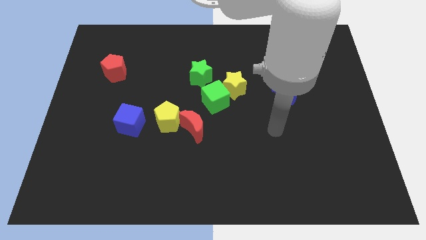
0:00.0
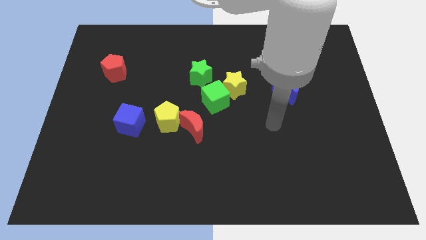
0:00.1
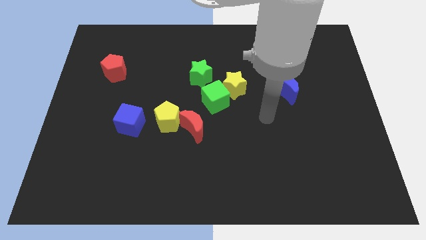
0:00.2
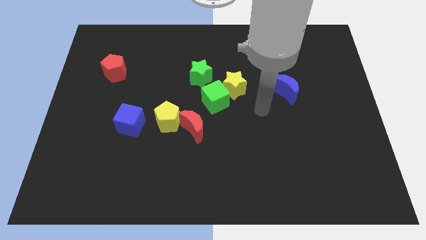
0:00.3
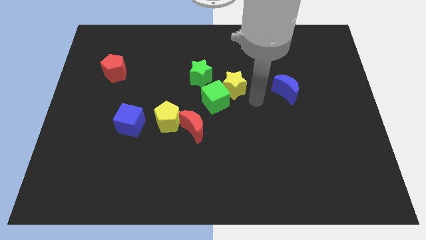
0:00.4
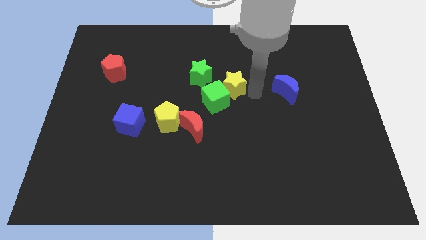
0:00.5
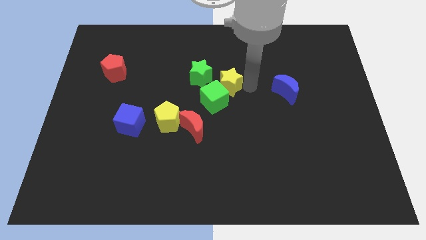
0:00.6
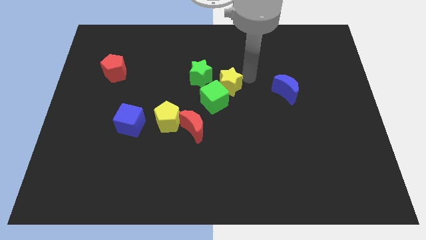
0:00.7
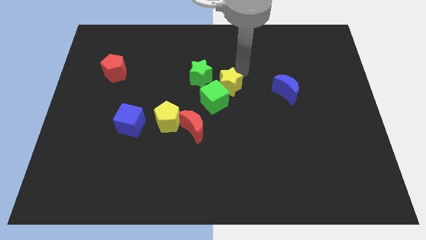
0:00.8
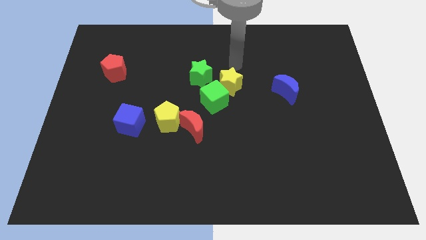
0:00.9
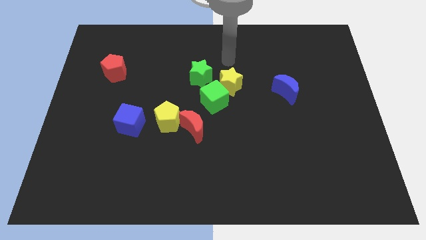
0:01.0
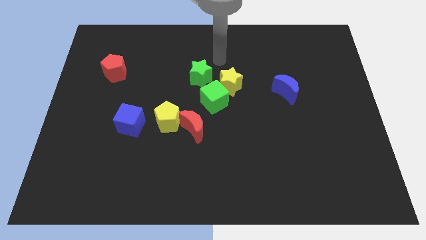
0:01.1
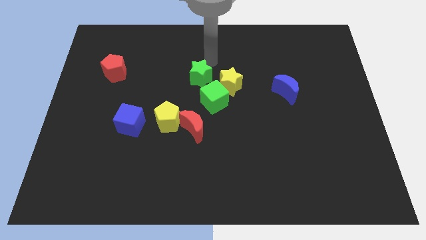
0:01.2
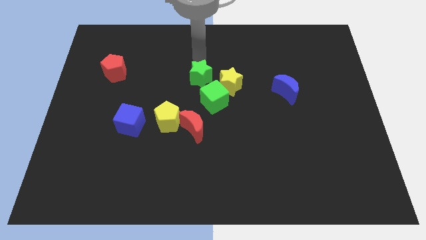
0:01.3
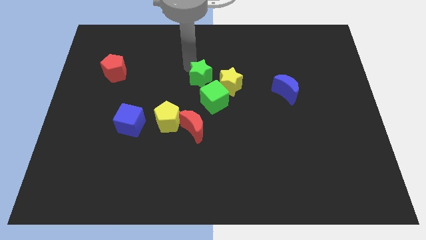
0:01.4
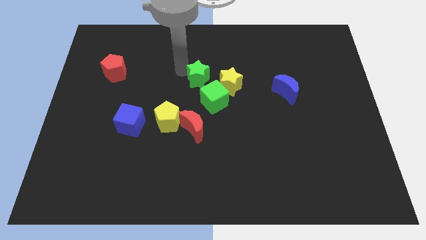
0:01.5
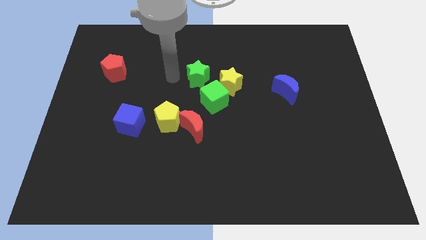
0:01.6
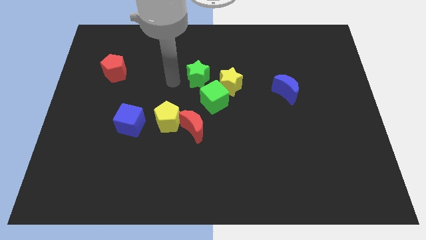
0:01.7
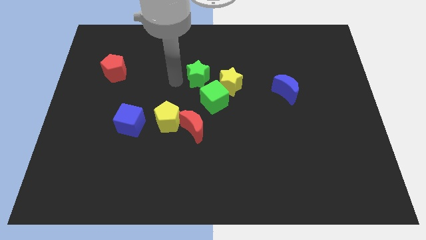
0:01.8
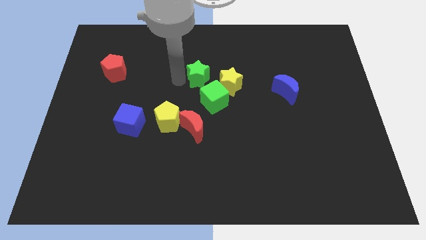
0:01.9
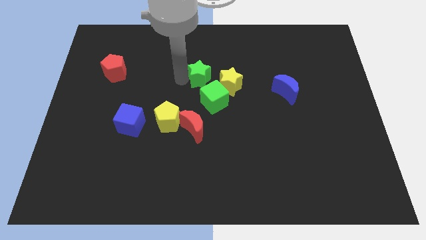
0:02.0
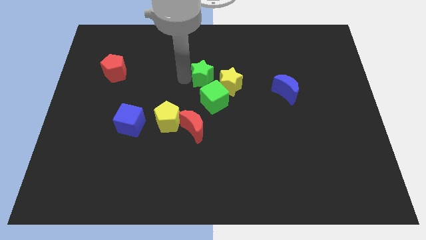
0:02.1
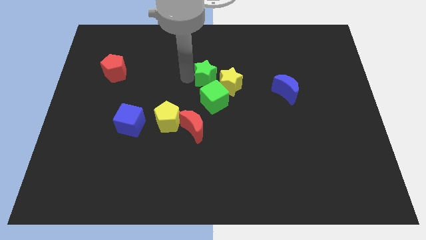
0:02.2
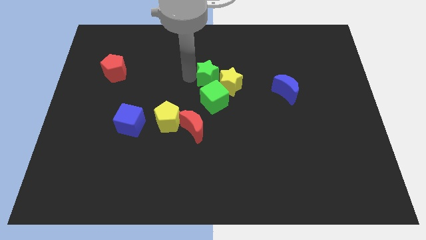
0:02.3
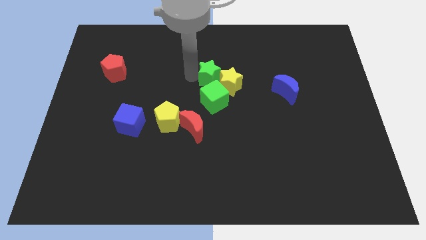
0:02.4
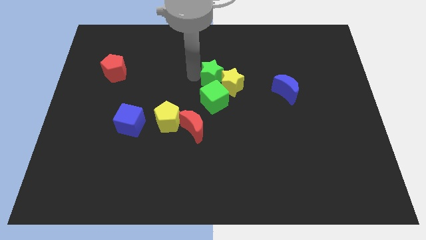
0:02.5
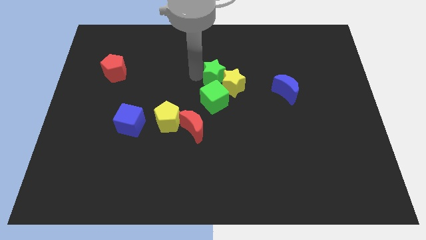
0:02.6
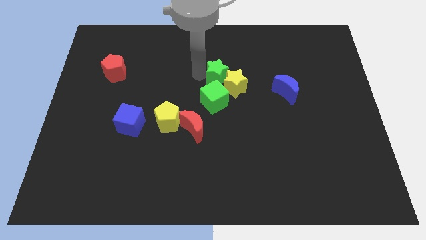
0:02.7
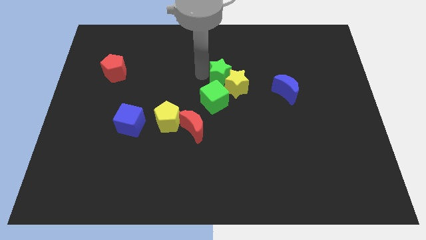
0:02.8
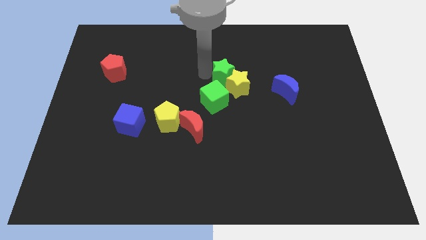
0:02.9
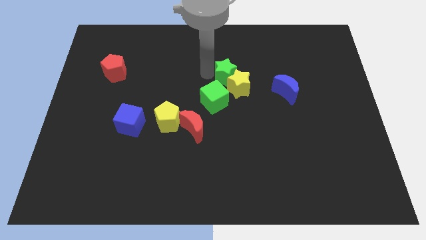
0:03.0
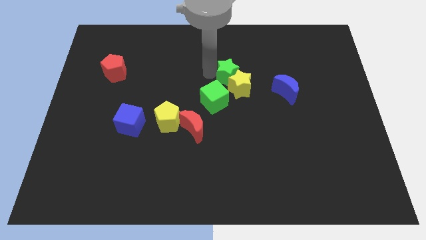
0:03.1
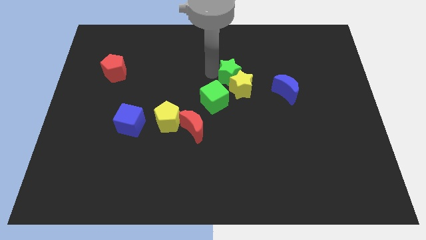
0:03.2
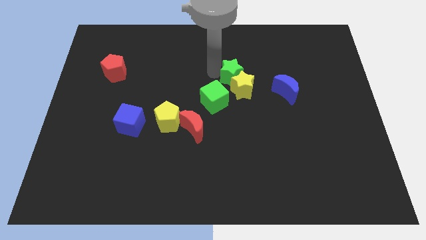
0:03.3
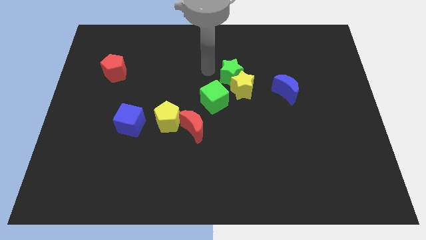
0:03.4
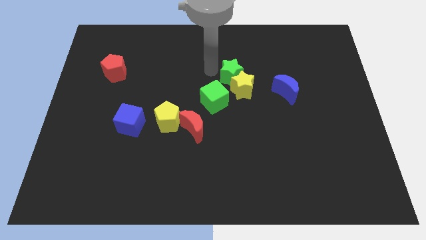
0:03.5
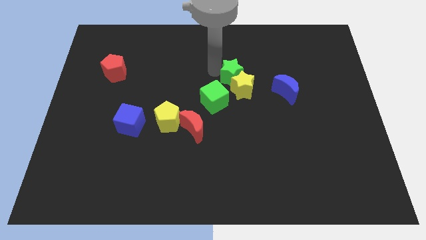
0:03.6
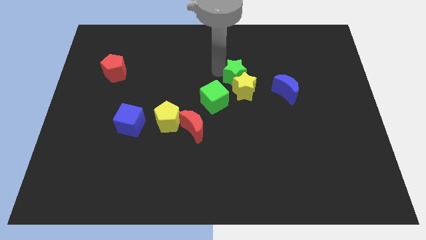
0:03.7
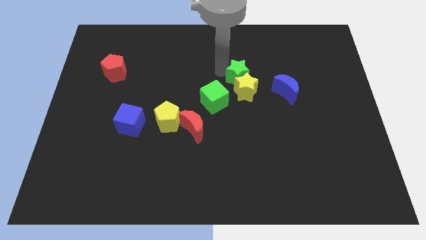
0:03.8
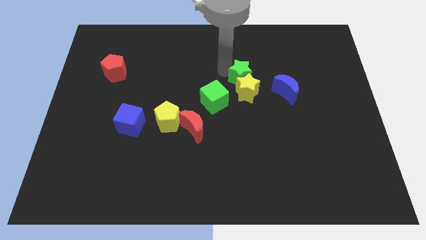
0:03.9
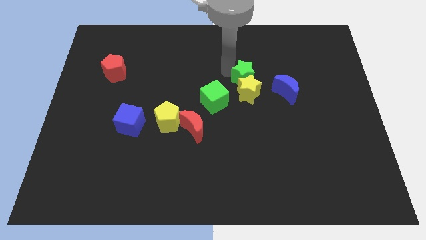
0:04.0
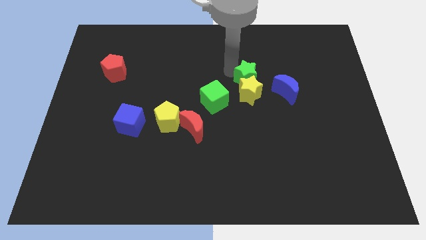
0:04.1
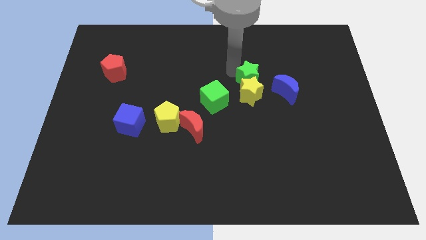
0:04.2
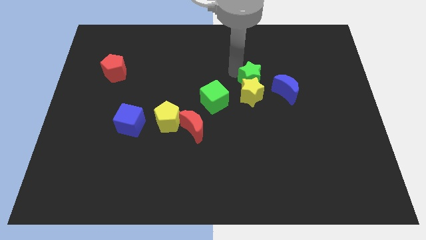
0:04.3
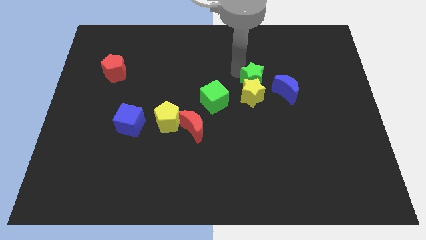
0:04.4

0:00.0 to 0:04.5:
slide the green star downwards and then to the right a bit

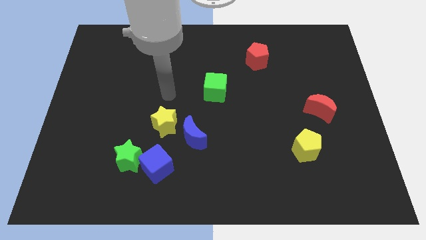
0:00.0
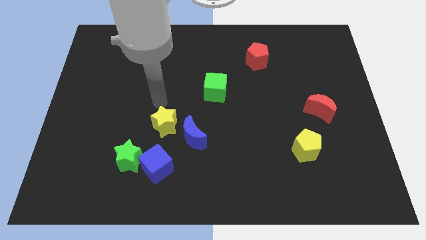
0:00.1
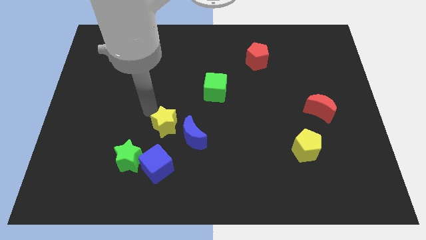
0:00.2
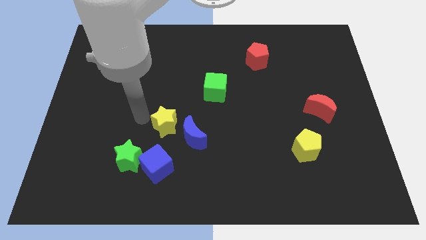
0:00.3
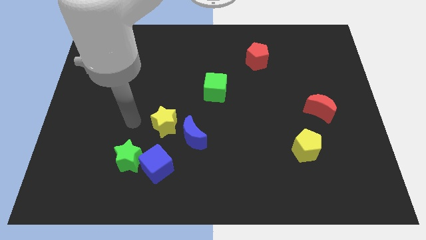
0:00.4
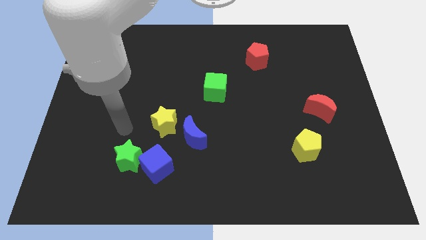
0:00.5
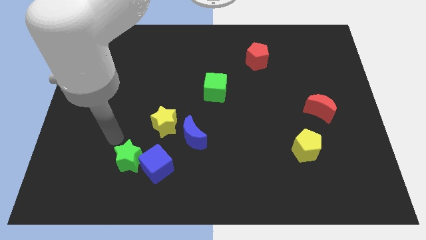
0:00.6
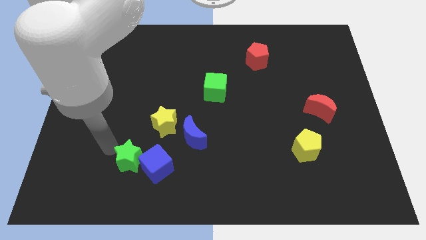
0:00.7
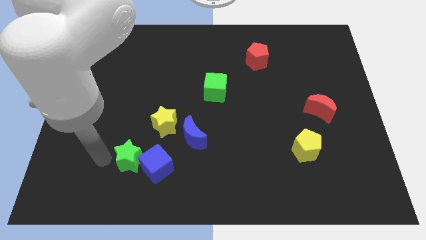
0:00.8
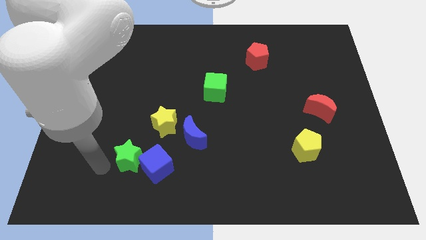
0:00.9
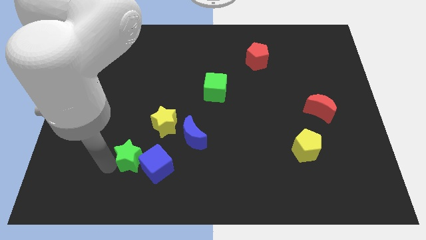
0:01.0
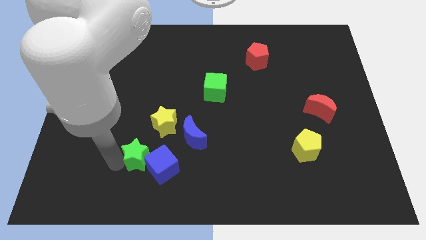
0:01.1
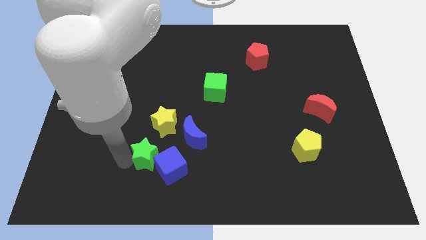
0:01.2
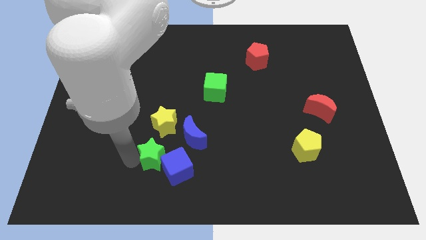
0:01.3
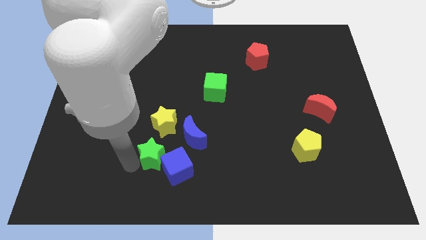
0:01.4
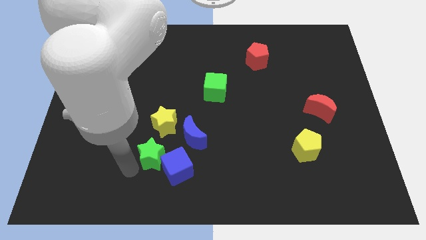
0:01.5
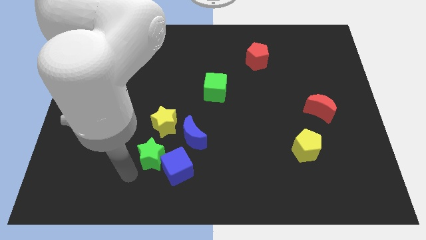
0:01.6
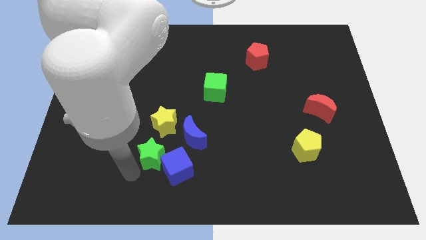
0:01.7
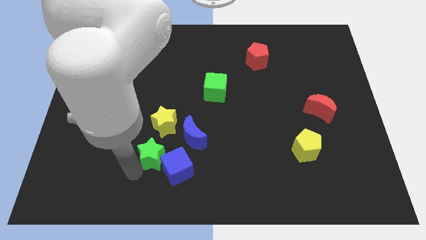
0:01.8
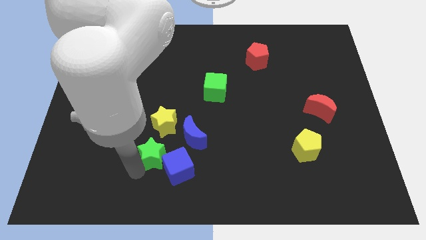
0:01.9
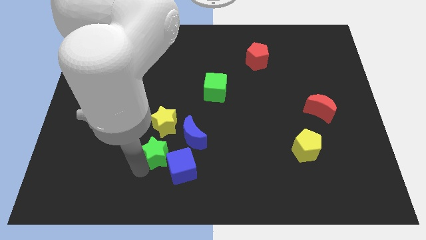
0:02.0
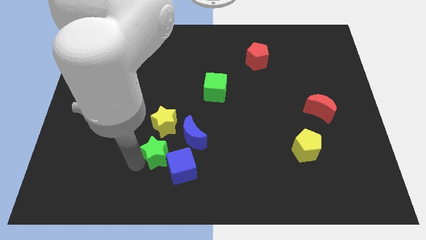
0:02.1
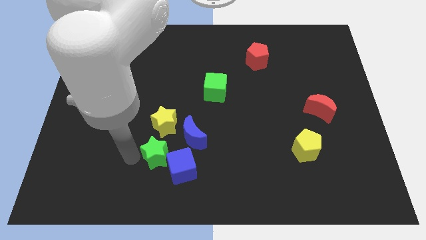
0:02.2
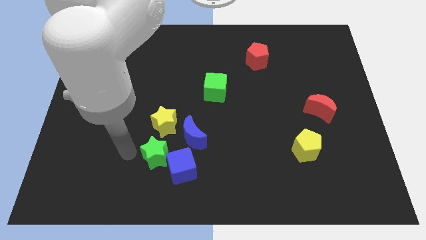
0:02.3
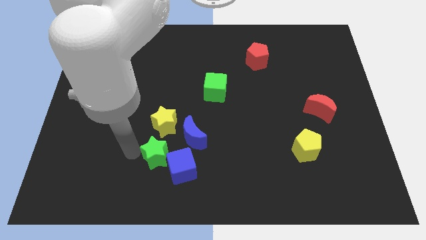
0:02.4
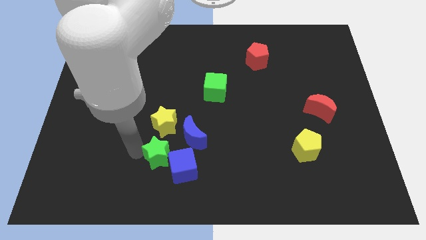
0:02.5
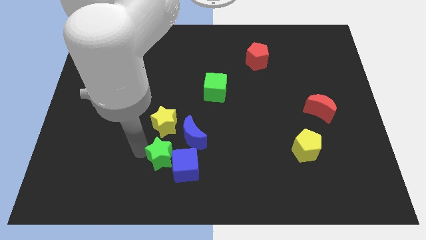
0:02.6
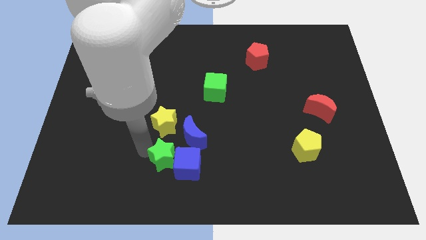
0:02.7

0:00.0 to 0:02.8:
move the green star right a bit

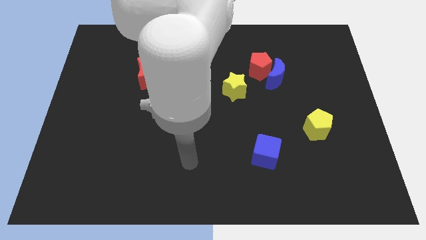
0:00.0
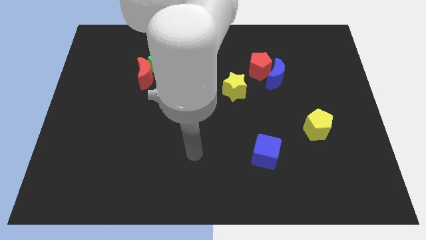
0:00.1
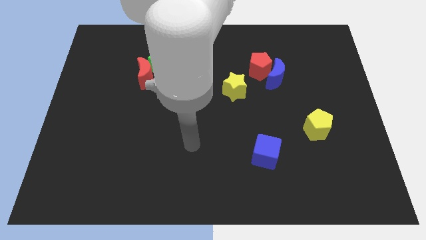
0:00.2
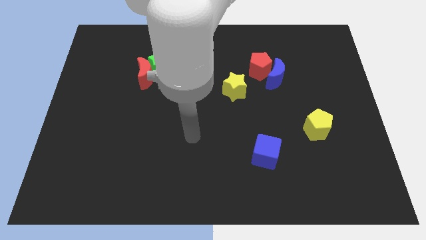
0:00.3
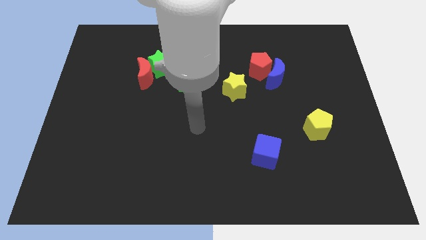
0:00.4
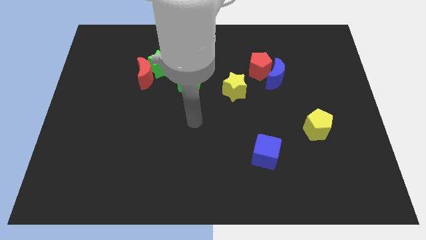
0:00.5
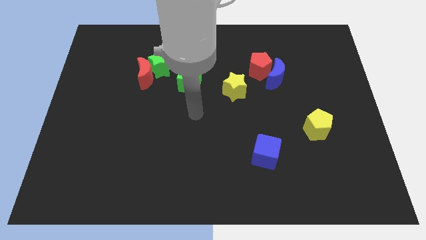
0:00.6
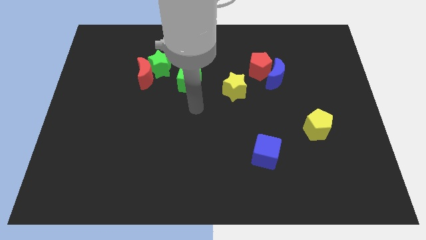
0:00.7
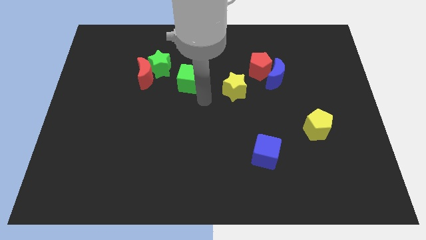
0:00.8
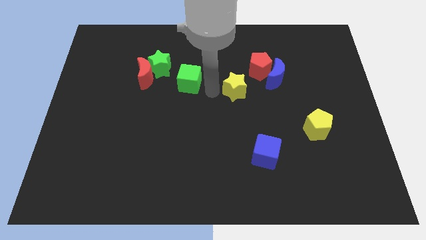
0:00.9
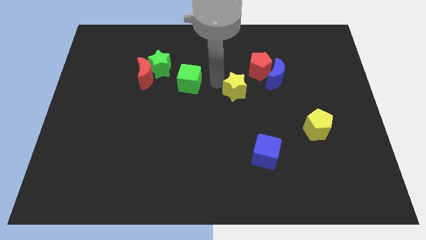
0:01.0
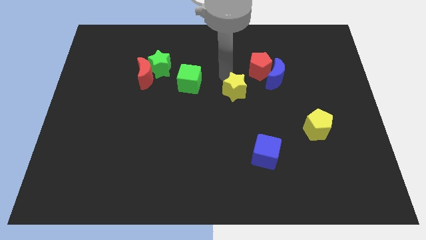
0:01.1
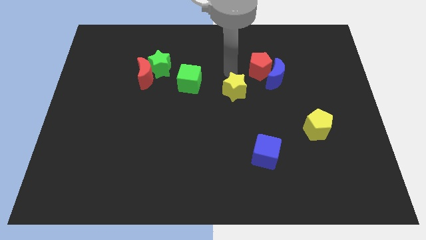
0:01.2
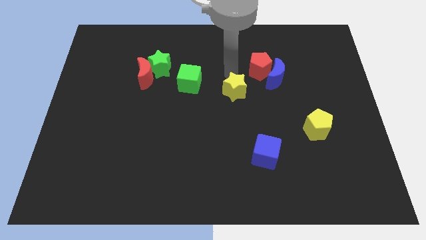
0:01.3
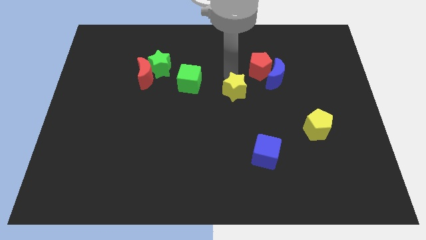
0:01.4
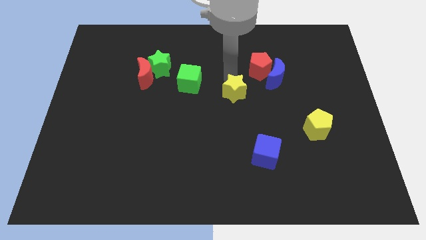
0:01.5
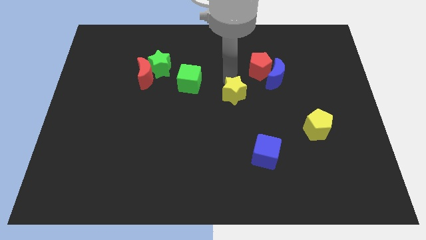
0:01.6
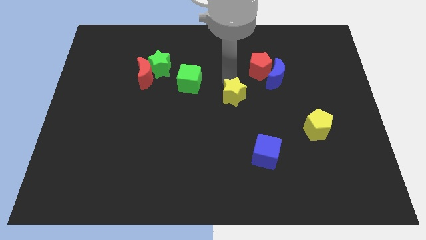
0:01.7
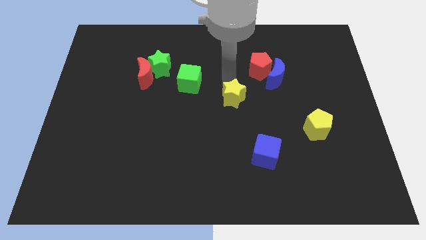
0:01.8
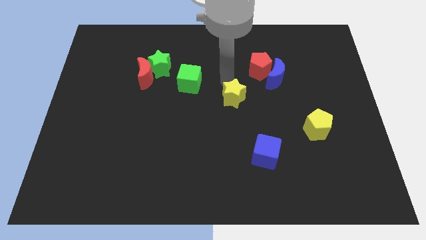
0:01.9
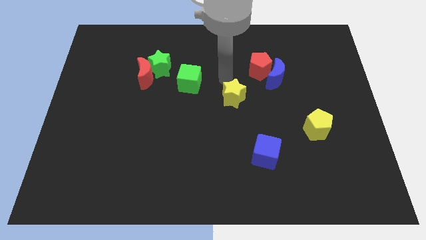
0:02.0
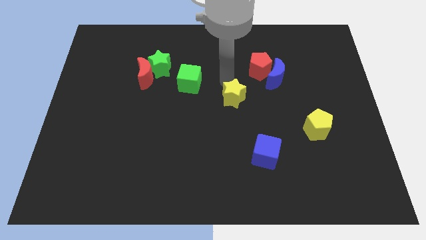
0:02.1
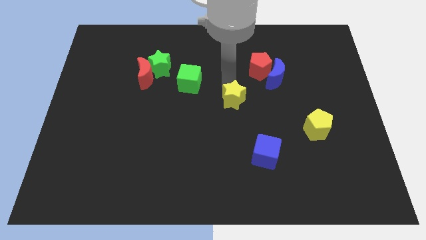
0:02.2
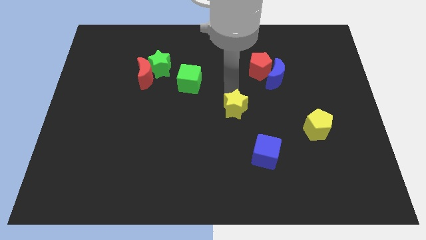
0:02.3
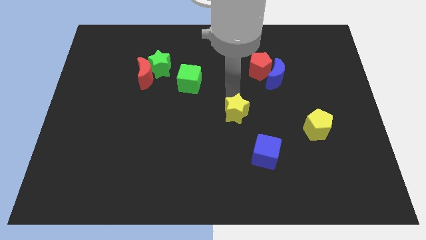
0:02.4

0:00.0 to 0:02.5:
move the yellow star somewhat down
